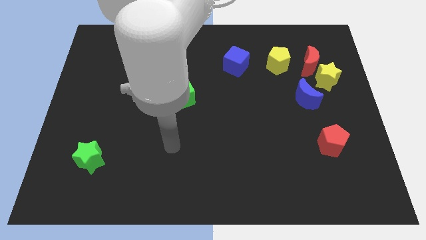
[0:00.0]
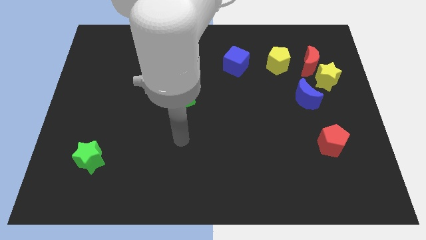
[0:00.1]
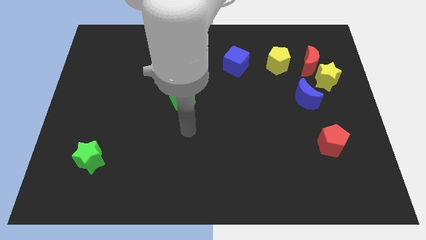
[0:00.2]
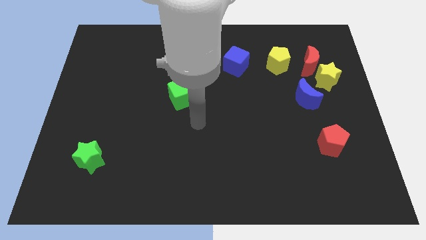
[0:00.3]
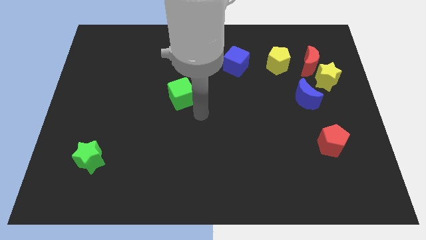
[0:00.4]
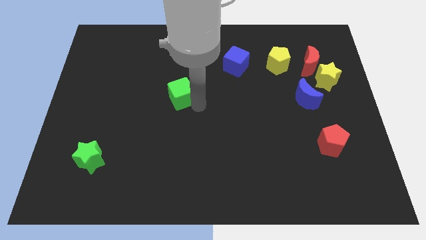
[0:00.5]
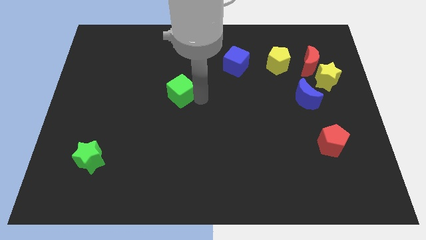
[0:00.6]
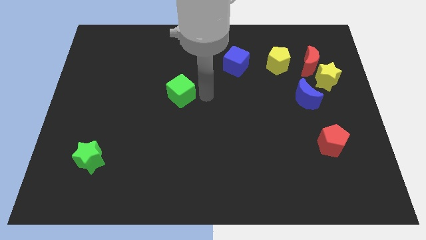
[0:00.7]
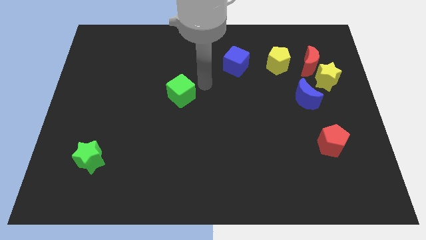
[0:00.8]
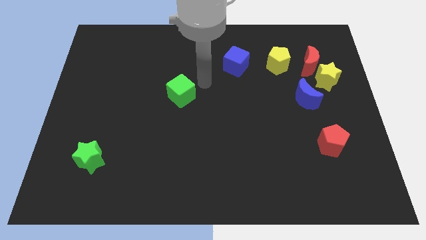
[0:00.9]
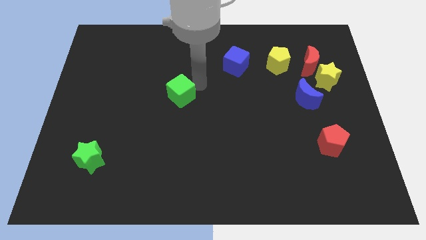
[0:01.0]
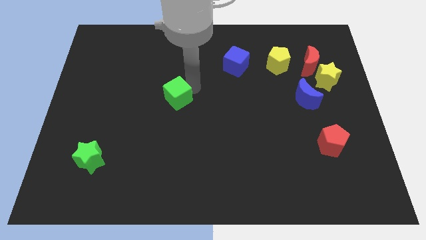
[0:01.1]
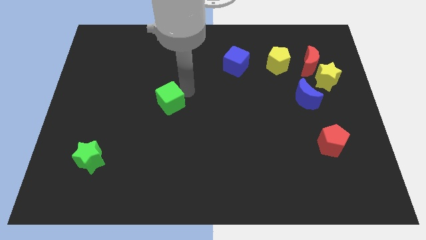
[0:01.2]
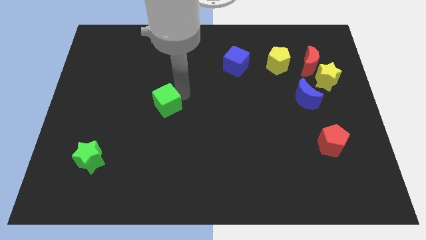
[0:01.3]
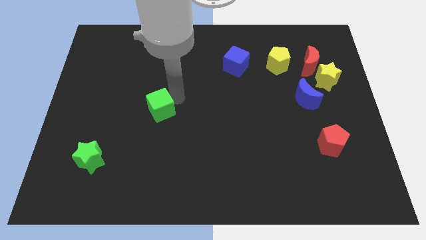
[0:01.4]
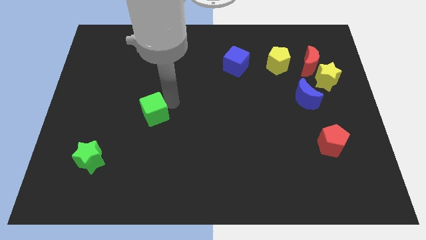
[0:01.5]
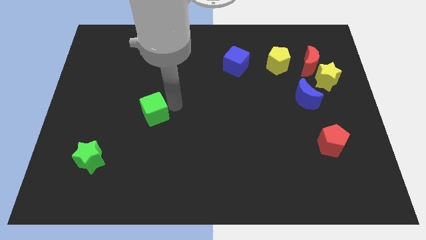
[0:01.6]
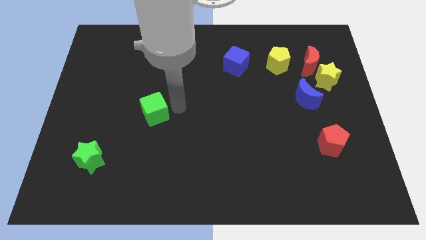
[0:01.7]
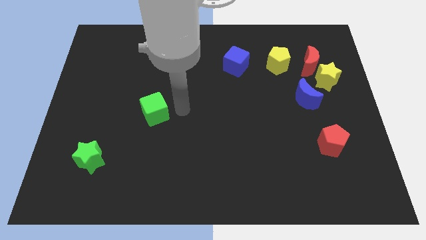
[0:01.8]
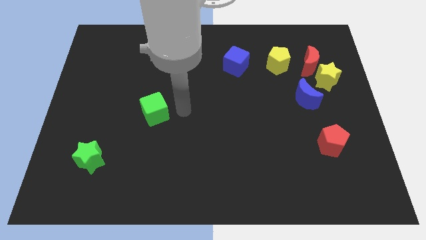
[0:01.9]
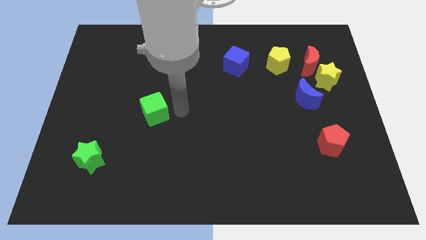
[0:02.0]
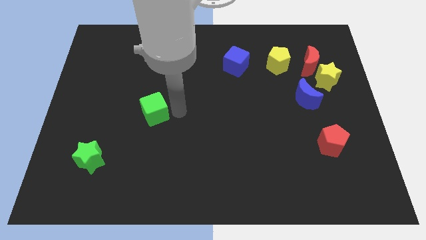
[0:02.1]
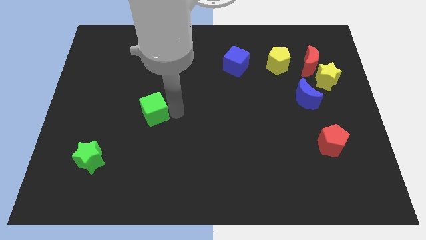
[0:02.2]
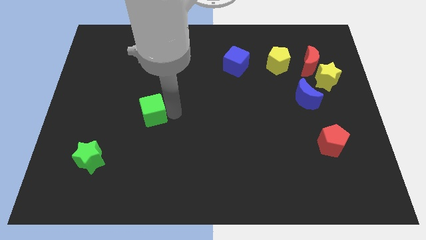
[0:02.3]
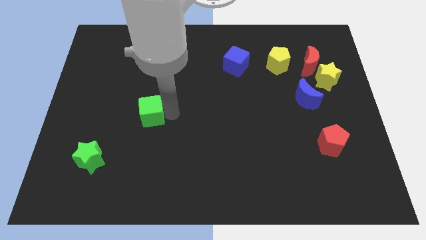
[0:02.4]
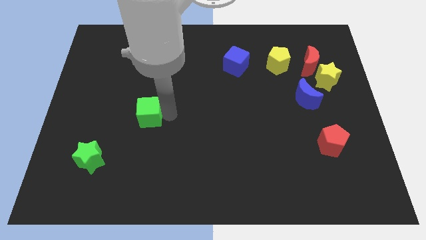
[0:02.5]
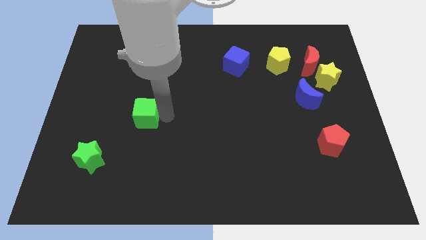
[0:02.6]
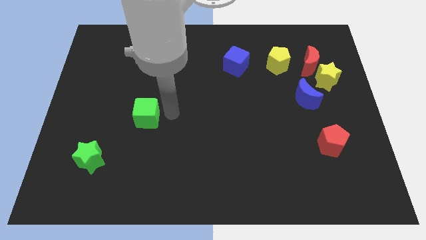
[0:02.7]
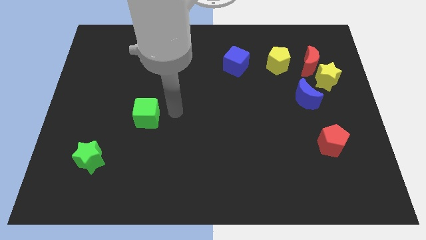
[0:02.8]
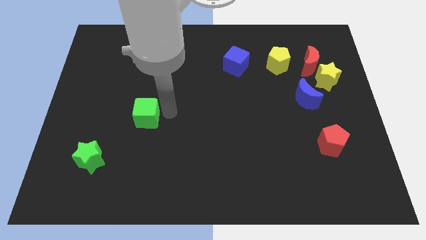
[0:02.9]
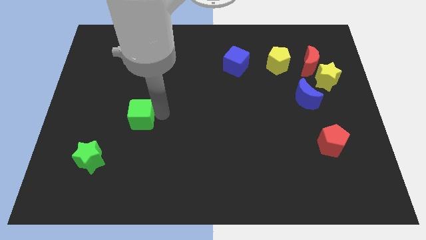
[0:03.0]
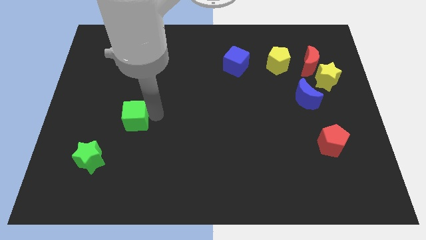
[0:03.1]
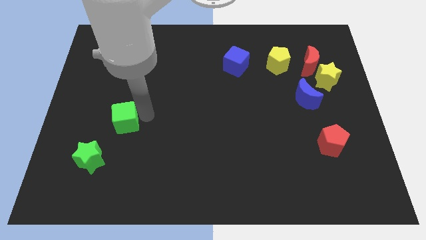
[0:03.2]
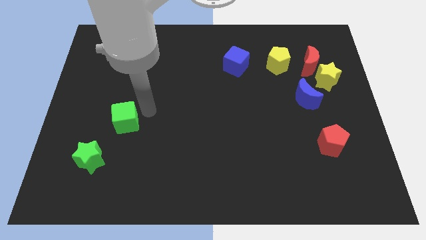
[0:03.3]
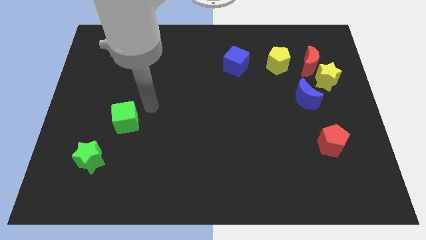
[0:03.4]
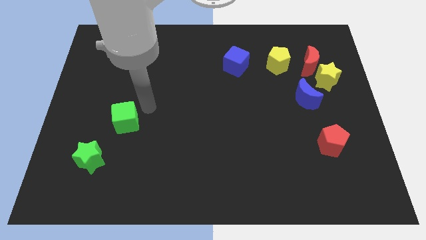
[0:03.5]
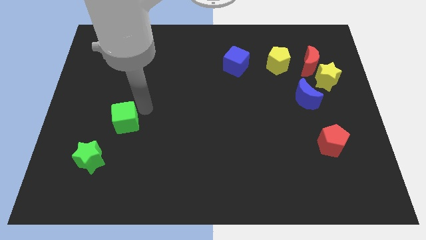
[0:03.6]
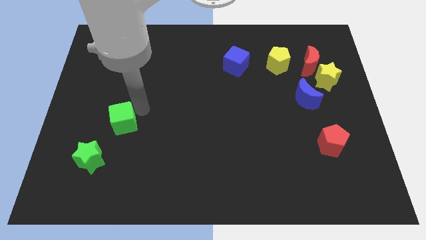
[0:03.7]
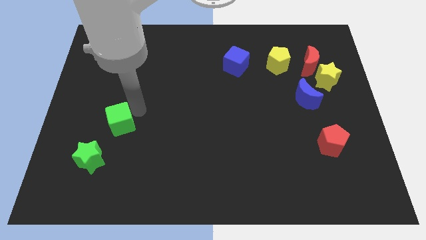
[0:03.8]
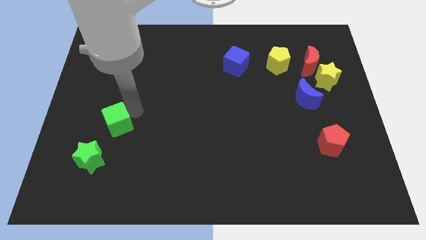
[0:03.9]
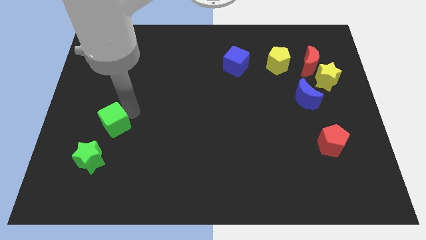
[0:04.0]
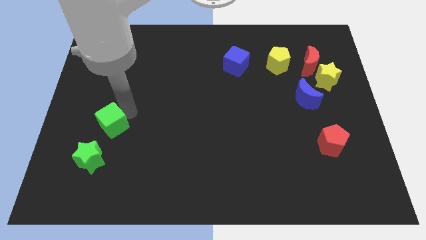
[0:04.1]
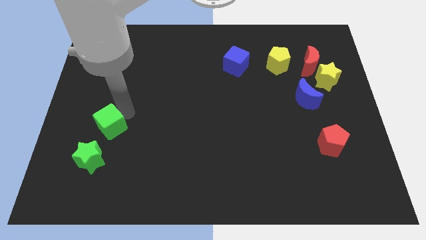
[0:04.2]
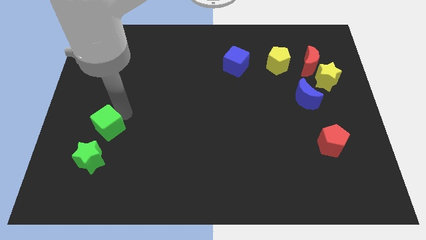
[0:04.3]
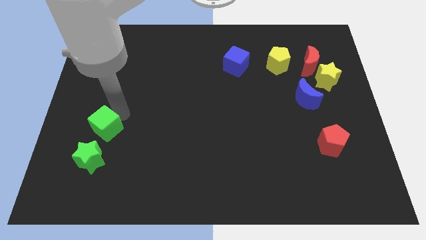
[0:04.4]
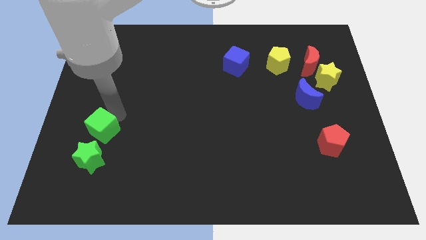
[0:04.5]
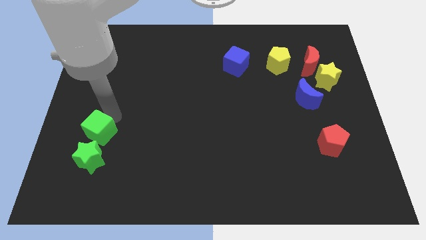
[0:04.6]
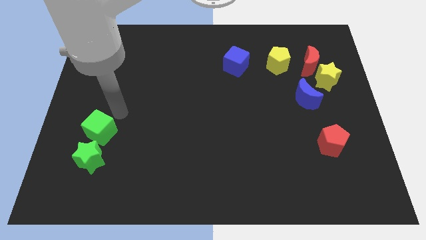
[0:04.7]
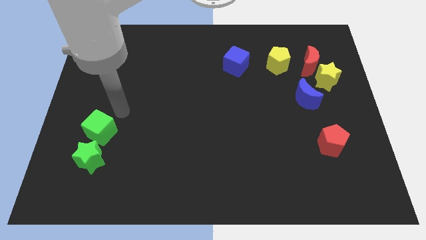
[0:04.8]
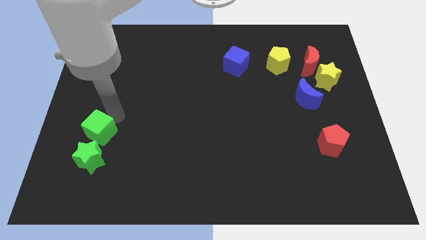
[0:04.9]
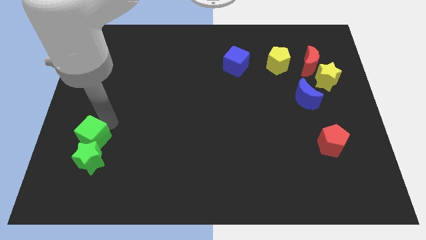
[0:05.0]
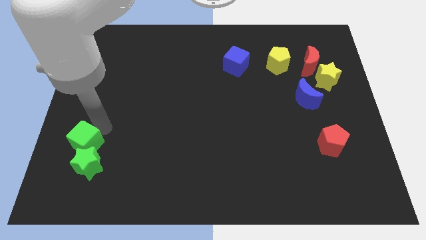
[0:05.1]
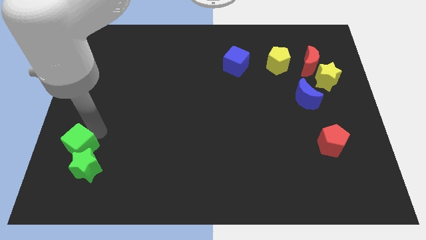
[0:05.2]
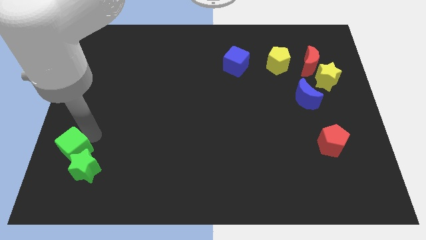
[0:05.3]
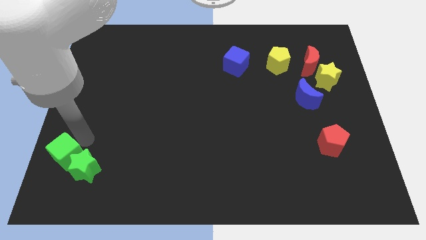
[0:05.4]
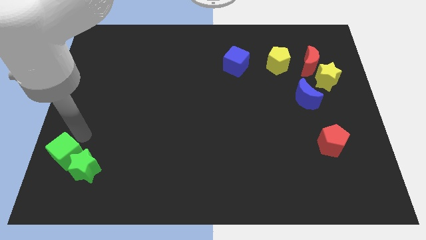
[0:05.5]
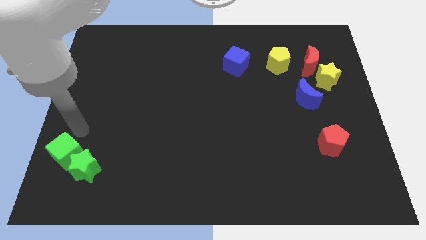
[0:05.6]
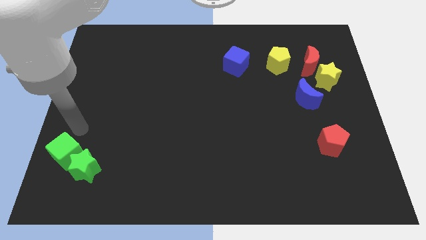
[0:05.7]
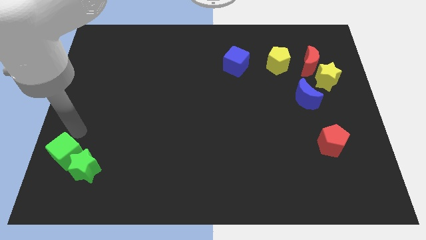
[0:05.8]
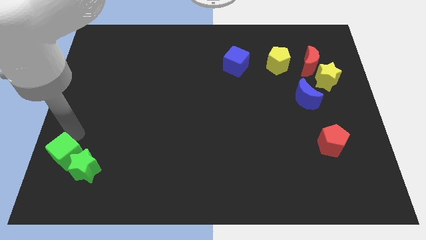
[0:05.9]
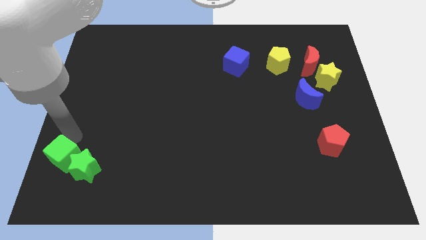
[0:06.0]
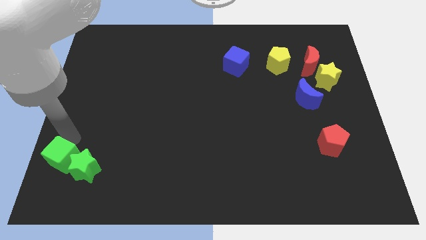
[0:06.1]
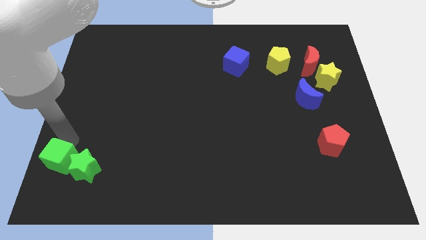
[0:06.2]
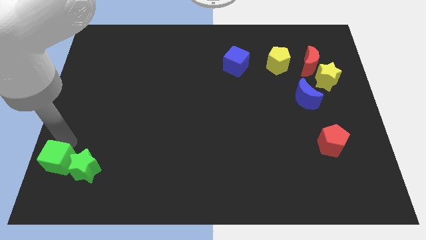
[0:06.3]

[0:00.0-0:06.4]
move the green cube to the bottom left of the board
